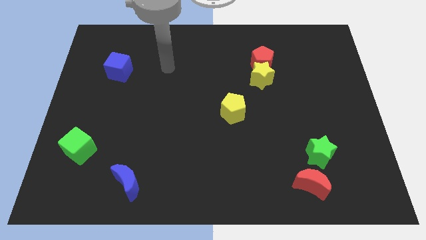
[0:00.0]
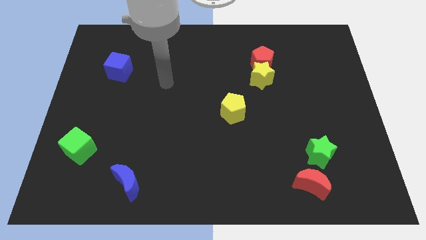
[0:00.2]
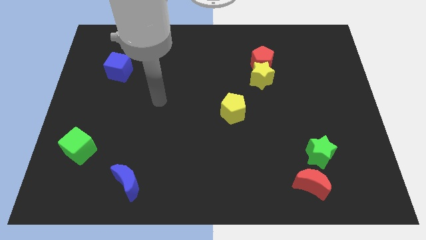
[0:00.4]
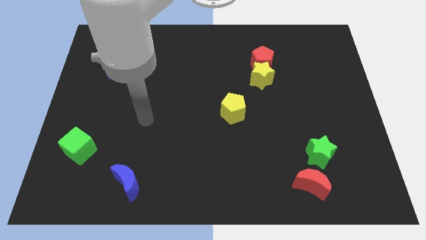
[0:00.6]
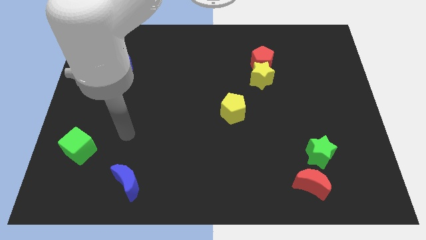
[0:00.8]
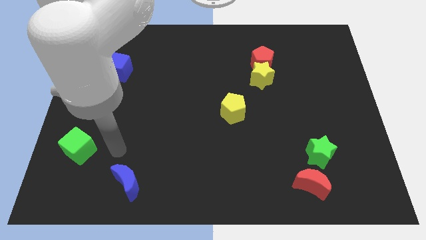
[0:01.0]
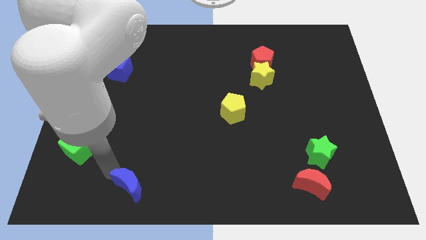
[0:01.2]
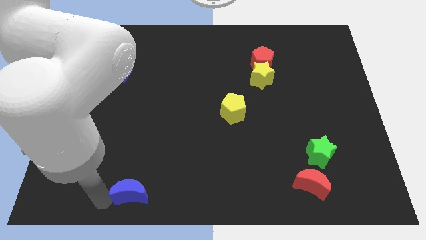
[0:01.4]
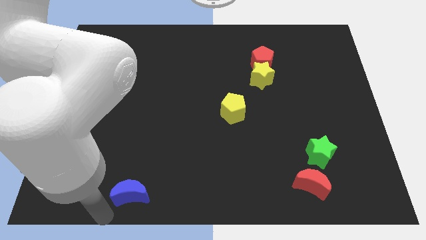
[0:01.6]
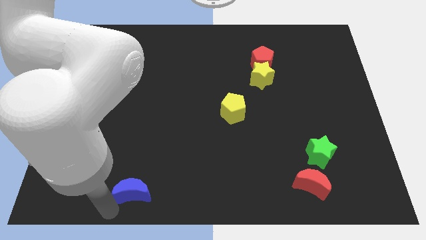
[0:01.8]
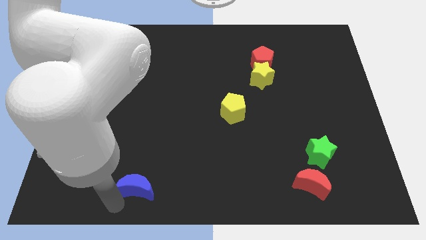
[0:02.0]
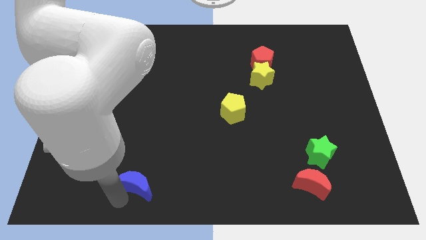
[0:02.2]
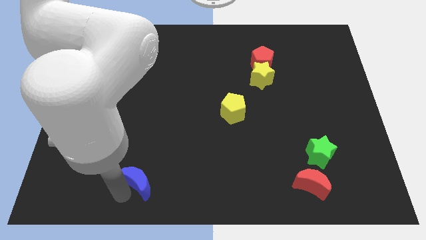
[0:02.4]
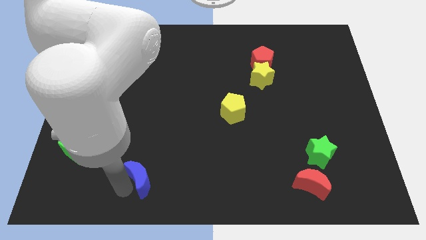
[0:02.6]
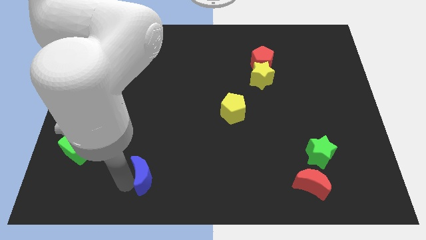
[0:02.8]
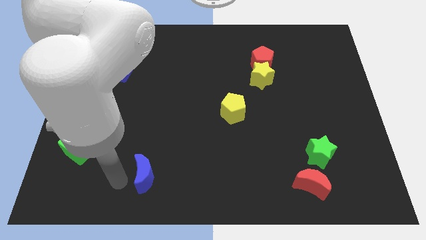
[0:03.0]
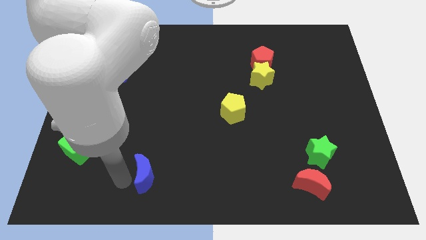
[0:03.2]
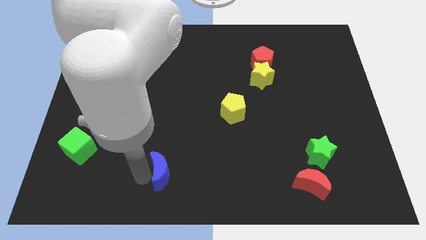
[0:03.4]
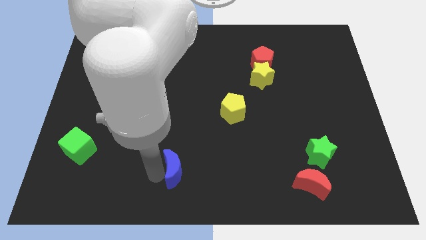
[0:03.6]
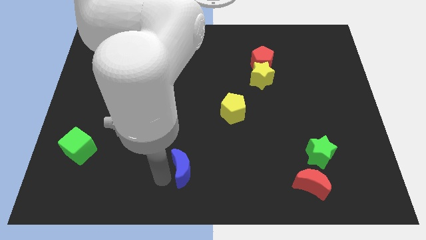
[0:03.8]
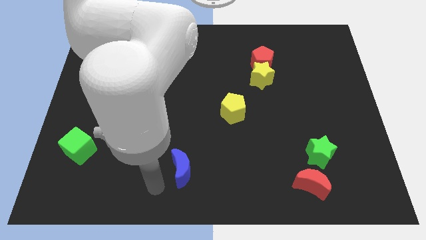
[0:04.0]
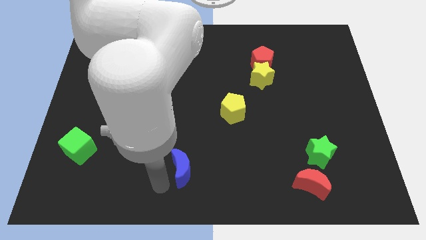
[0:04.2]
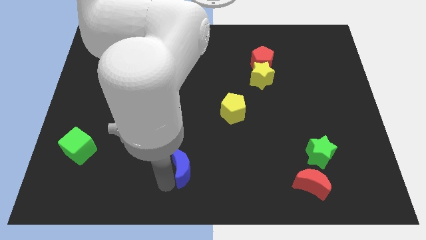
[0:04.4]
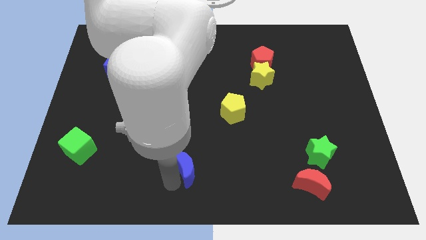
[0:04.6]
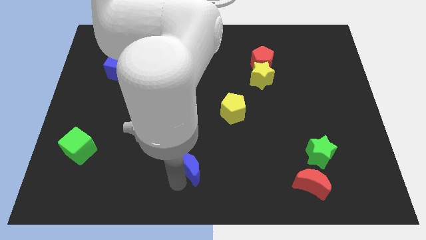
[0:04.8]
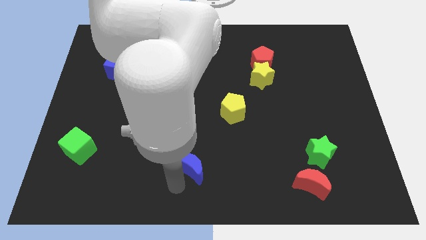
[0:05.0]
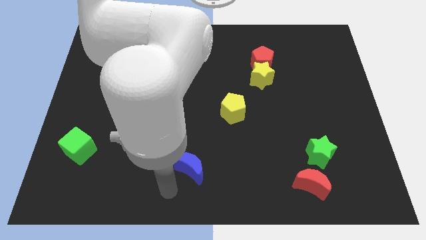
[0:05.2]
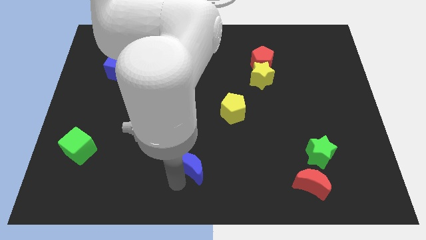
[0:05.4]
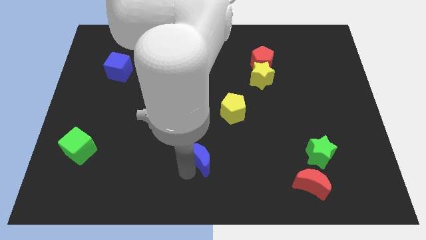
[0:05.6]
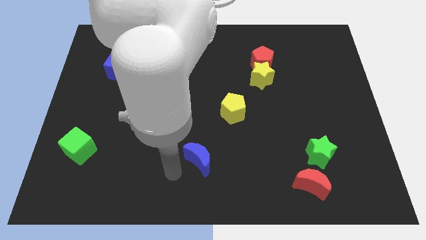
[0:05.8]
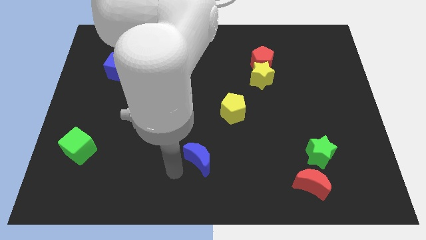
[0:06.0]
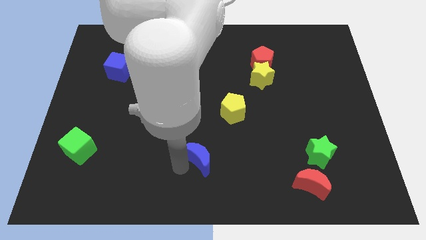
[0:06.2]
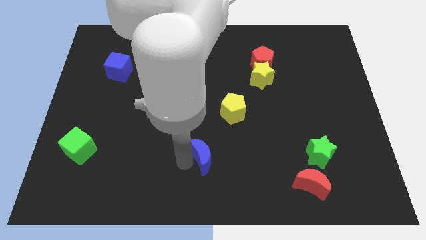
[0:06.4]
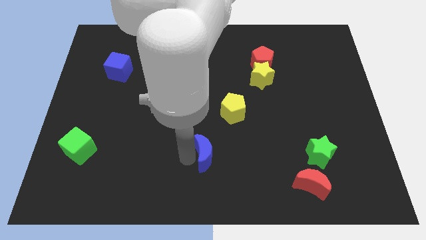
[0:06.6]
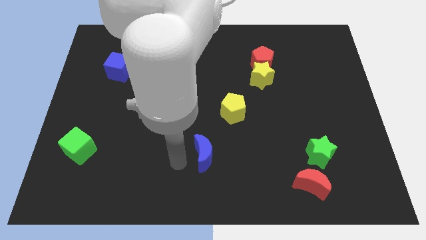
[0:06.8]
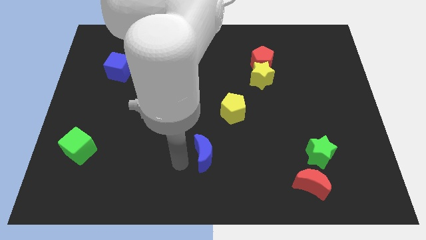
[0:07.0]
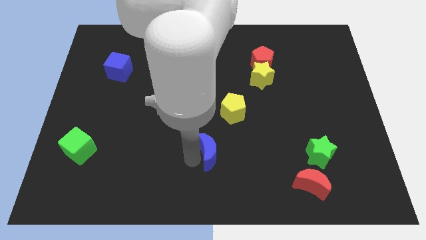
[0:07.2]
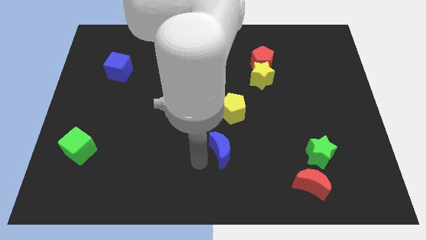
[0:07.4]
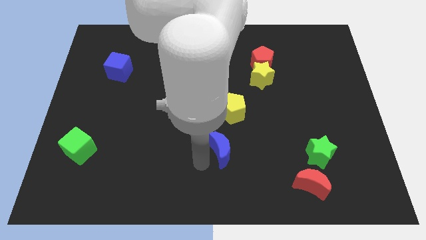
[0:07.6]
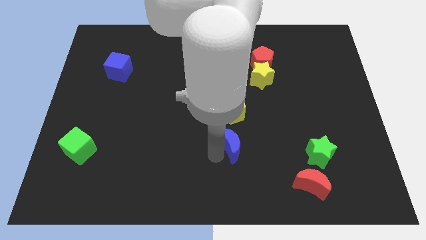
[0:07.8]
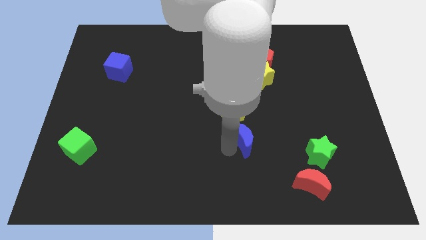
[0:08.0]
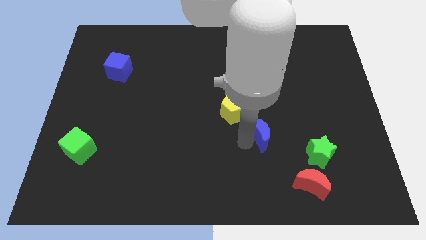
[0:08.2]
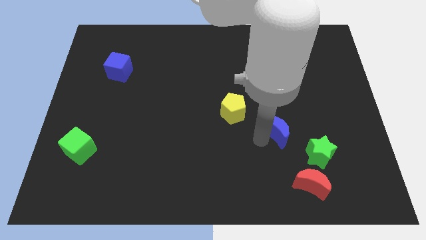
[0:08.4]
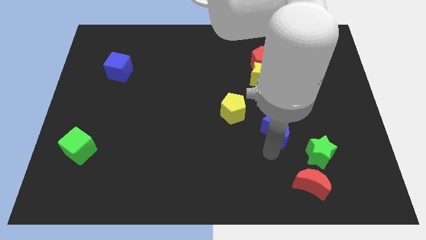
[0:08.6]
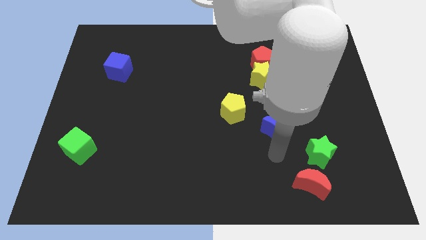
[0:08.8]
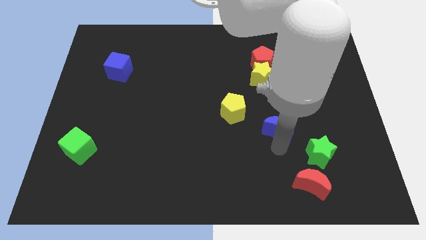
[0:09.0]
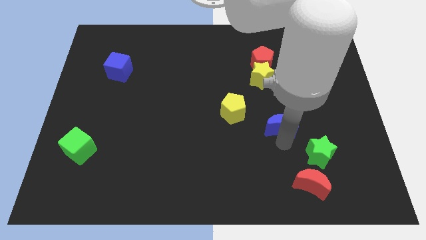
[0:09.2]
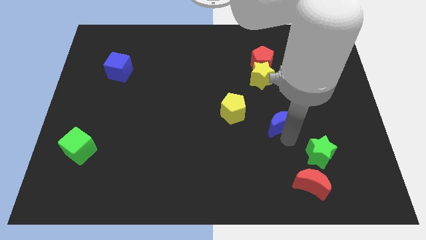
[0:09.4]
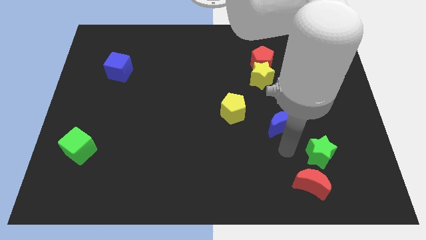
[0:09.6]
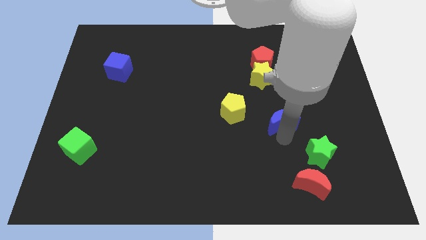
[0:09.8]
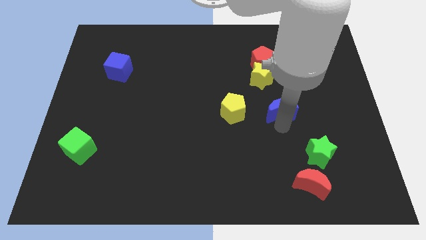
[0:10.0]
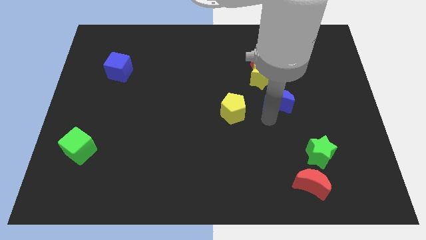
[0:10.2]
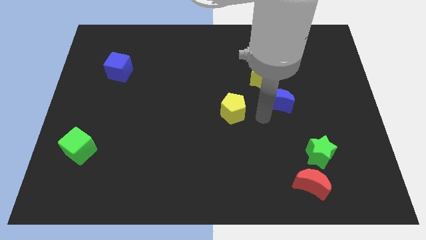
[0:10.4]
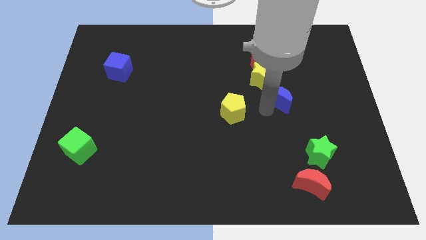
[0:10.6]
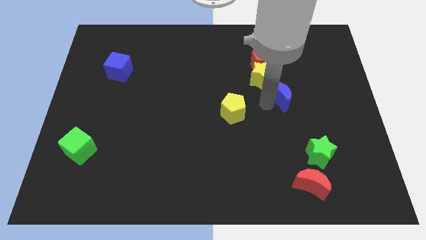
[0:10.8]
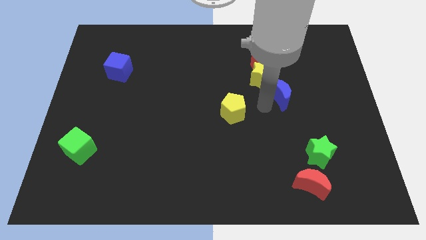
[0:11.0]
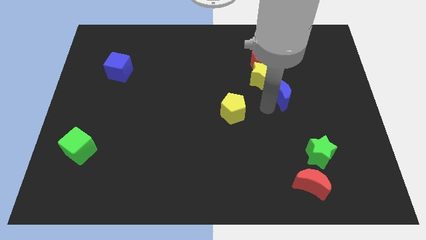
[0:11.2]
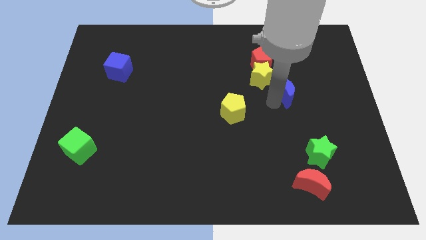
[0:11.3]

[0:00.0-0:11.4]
move the blue moon right of the yellow star
